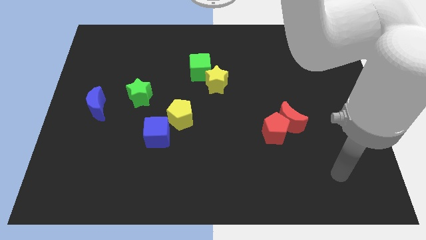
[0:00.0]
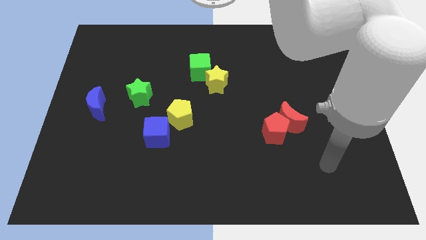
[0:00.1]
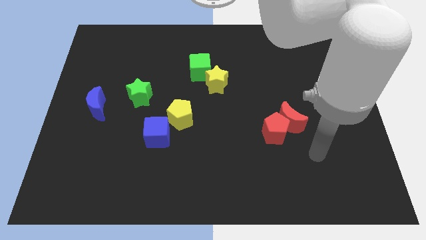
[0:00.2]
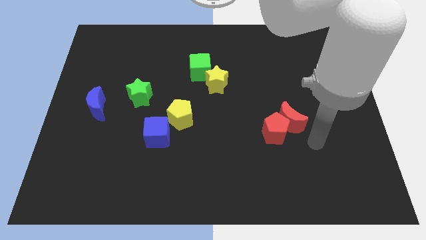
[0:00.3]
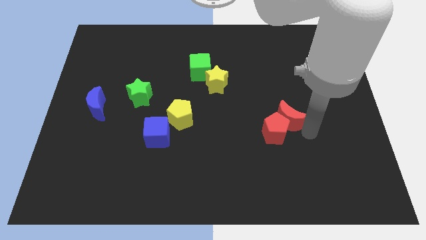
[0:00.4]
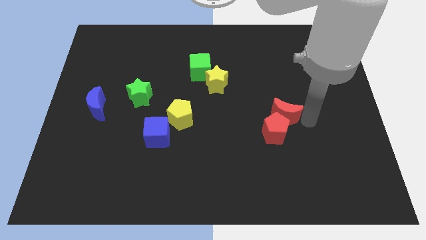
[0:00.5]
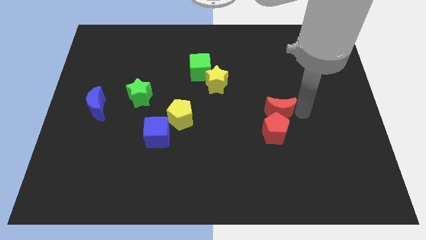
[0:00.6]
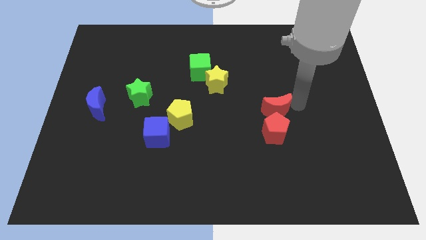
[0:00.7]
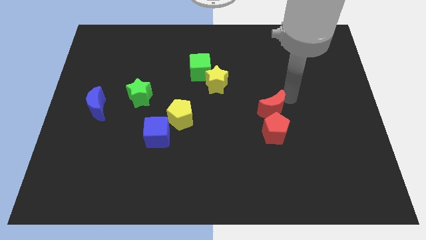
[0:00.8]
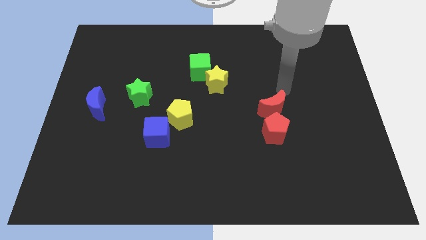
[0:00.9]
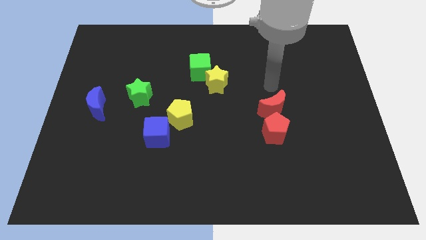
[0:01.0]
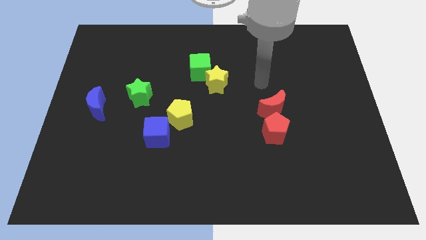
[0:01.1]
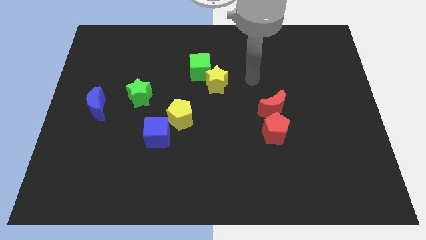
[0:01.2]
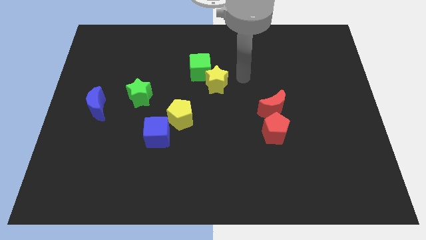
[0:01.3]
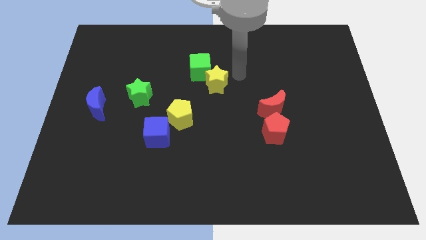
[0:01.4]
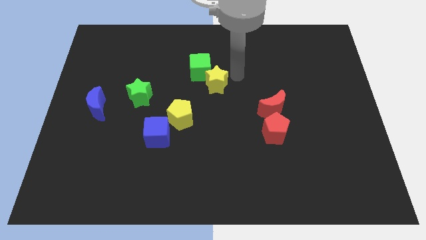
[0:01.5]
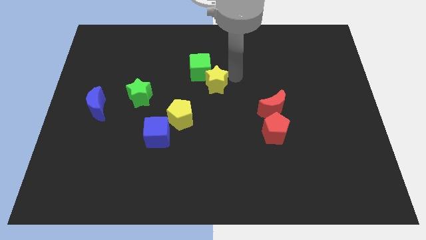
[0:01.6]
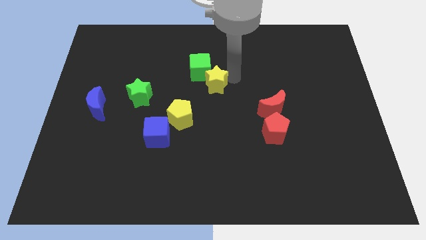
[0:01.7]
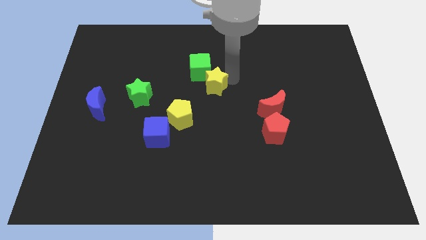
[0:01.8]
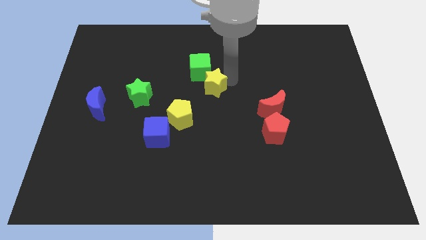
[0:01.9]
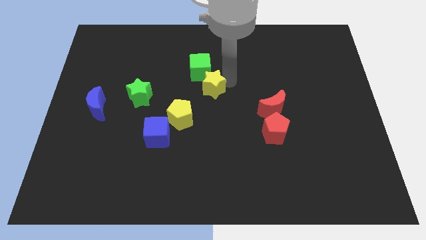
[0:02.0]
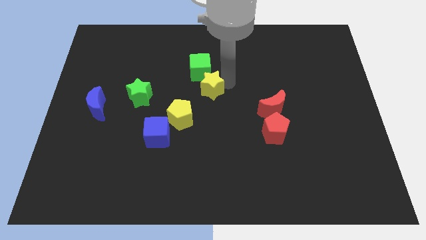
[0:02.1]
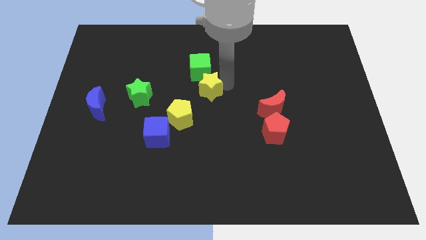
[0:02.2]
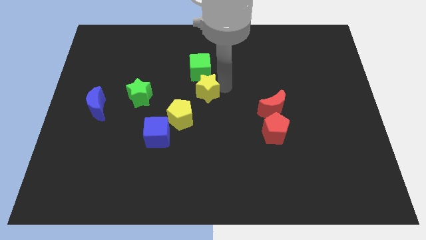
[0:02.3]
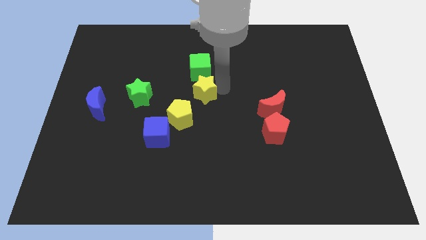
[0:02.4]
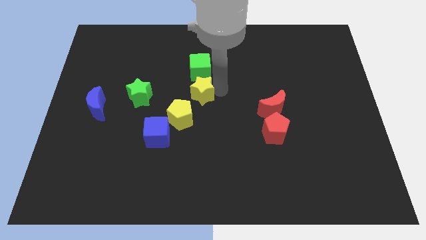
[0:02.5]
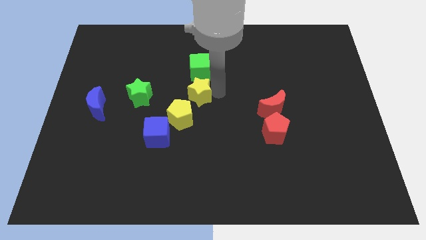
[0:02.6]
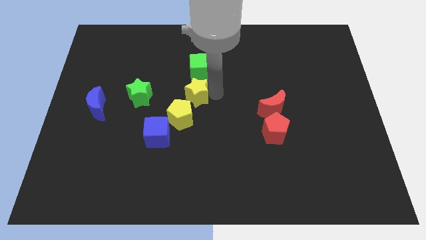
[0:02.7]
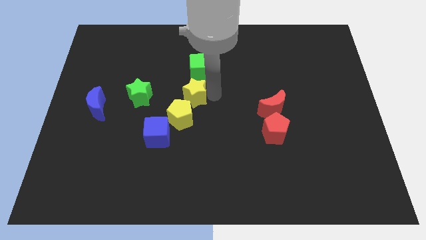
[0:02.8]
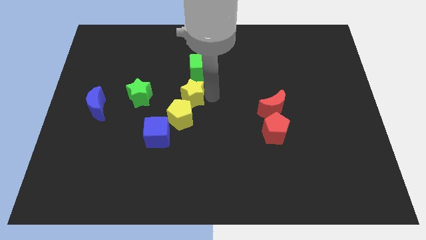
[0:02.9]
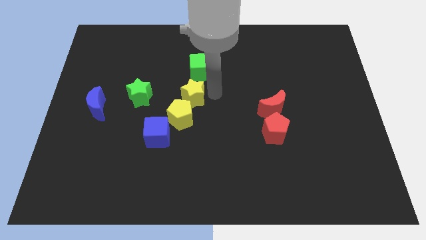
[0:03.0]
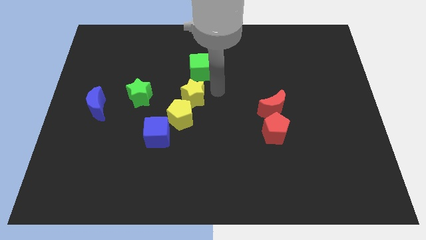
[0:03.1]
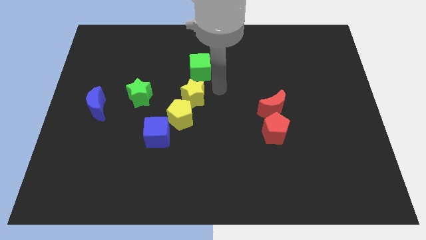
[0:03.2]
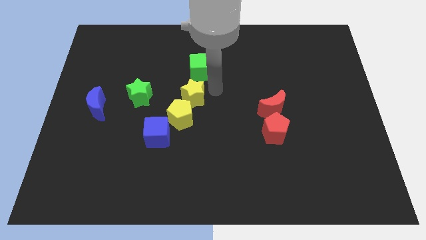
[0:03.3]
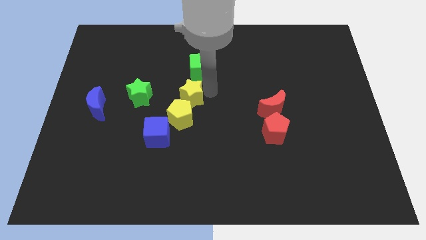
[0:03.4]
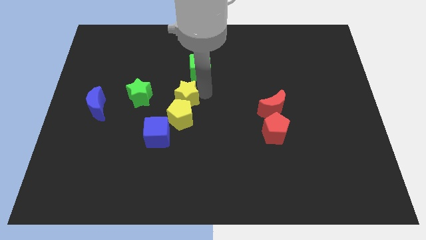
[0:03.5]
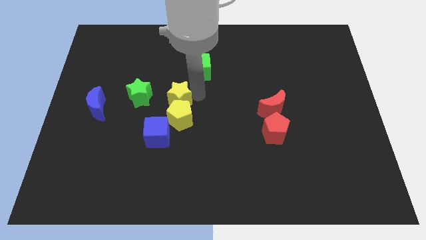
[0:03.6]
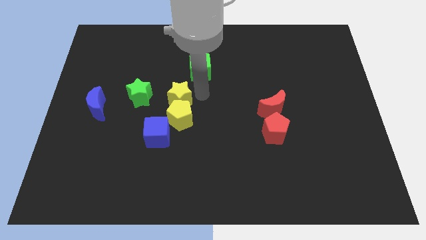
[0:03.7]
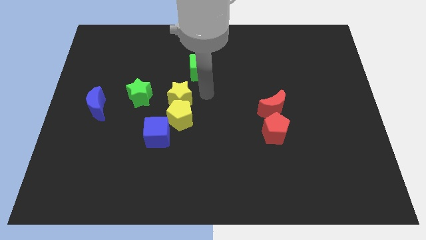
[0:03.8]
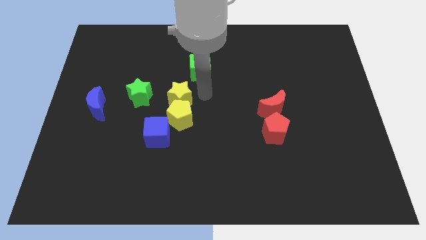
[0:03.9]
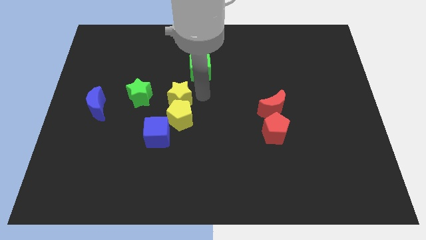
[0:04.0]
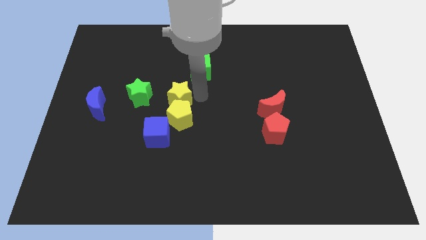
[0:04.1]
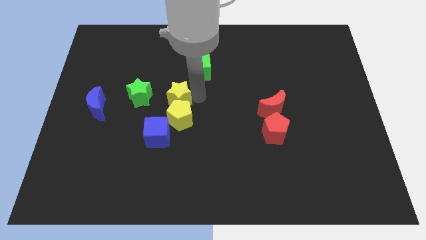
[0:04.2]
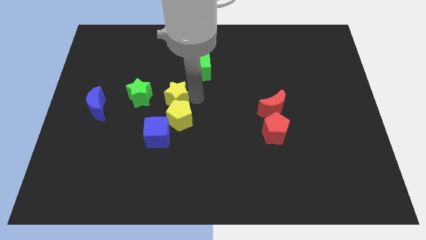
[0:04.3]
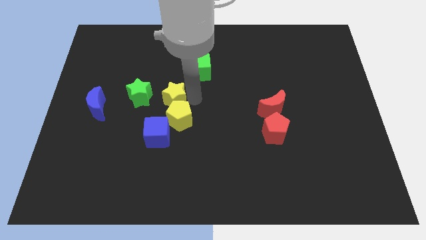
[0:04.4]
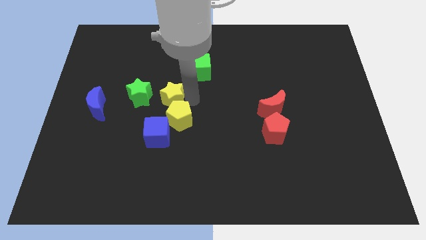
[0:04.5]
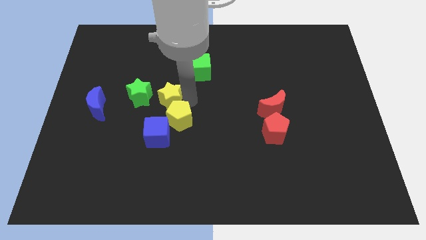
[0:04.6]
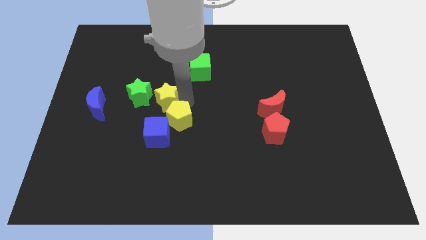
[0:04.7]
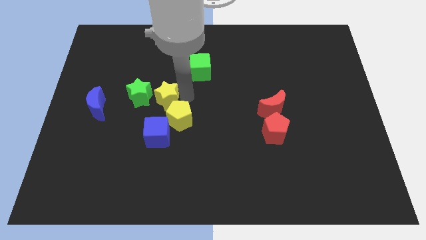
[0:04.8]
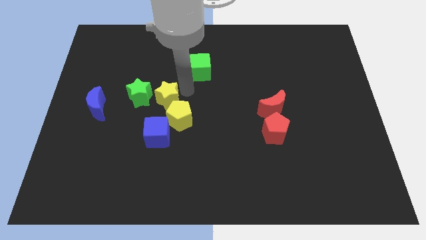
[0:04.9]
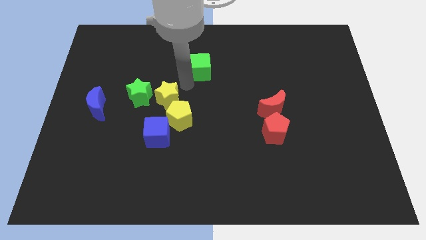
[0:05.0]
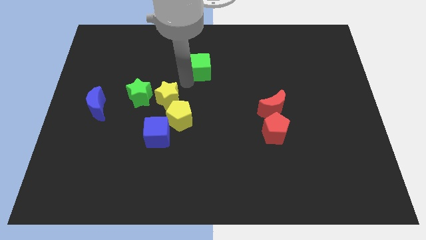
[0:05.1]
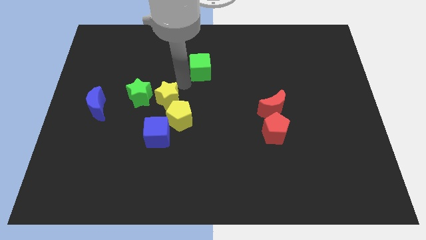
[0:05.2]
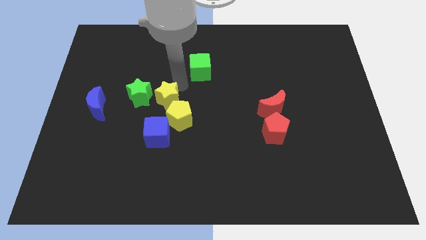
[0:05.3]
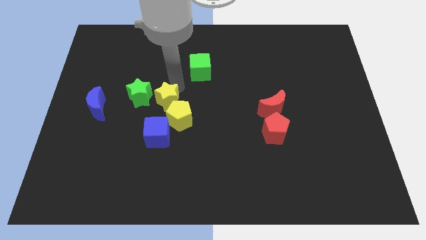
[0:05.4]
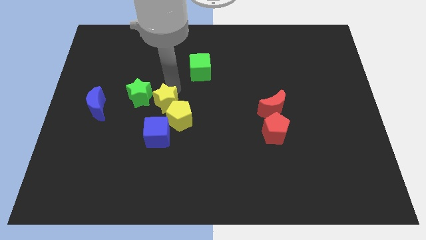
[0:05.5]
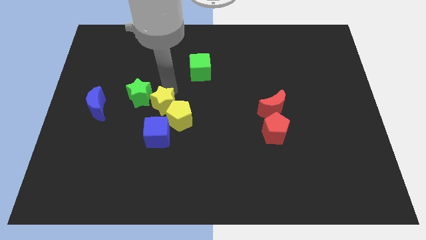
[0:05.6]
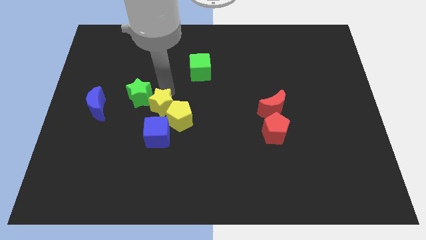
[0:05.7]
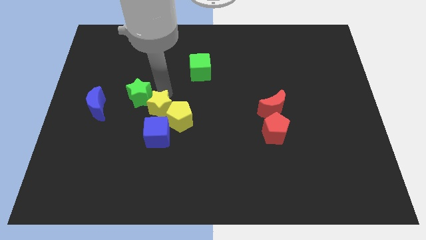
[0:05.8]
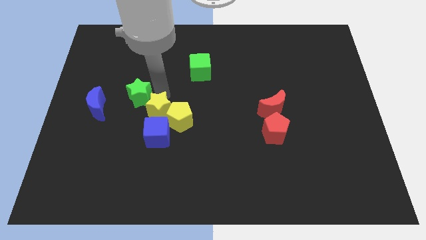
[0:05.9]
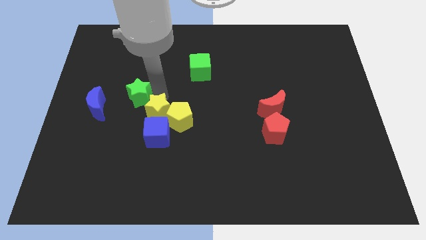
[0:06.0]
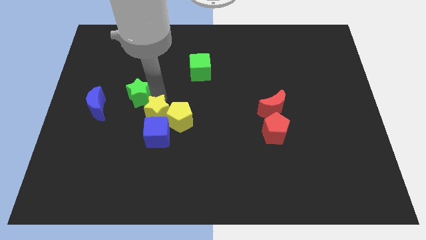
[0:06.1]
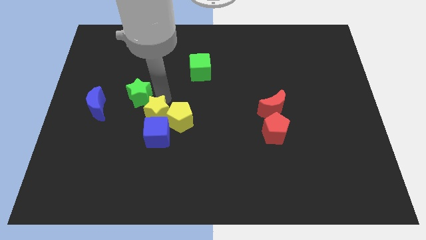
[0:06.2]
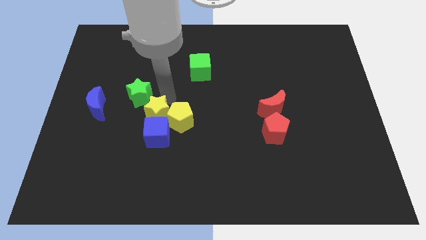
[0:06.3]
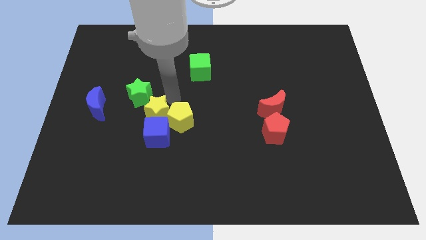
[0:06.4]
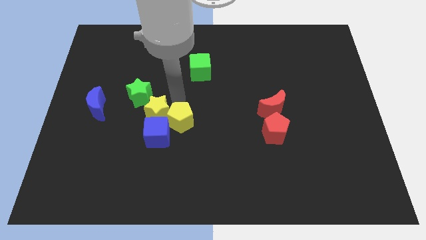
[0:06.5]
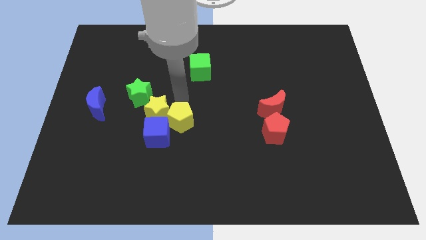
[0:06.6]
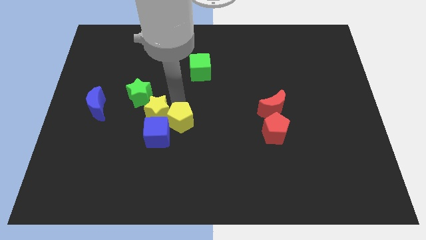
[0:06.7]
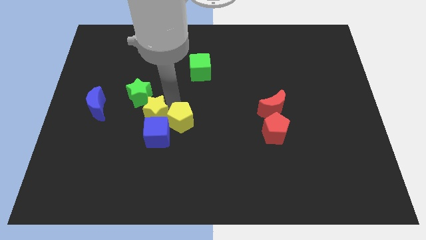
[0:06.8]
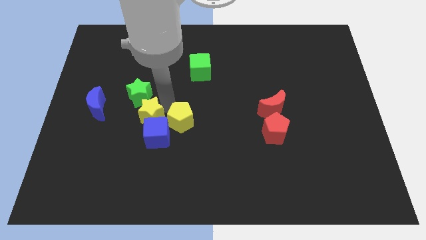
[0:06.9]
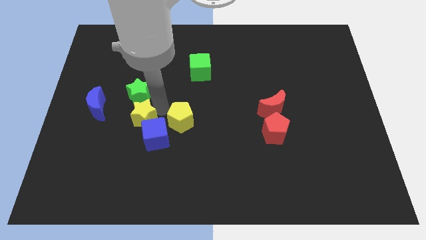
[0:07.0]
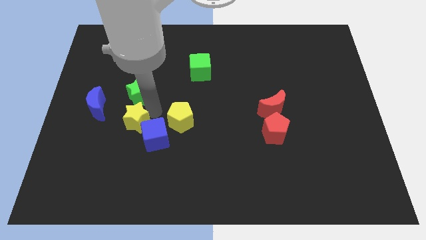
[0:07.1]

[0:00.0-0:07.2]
push the yellow star diagonally down and to the left

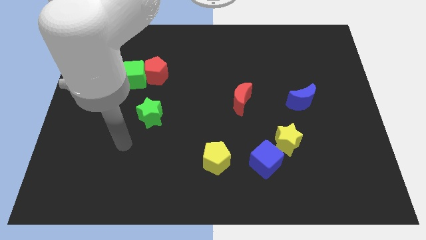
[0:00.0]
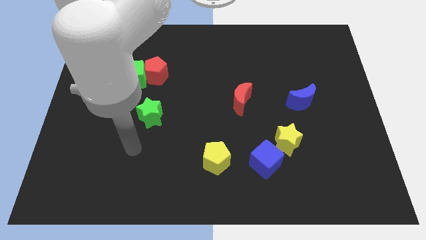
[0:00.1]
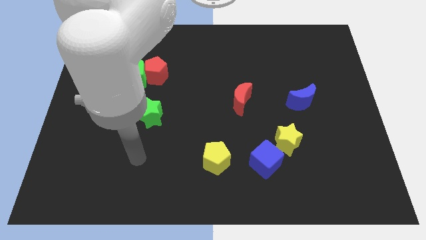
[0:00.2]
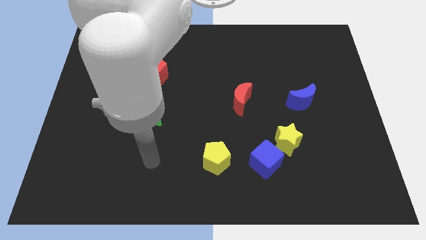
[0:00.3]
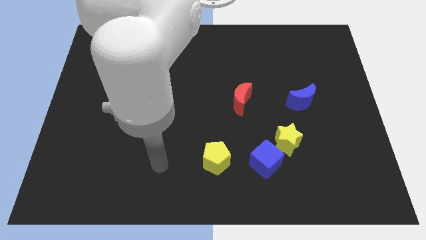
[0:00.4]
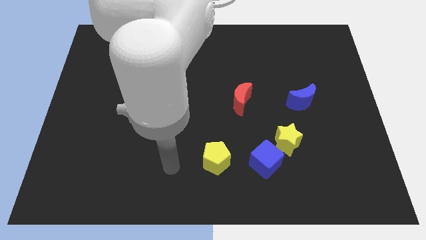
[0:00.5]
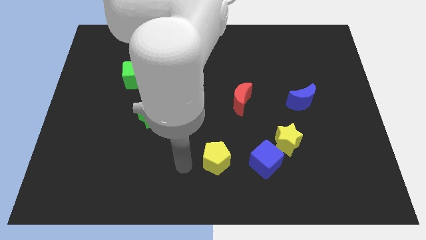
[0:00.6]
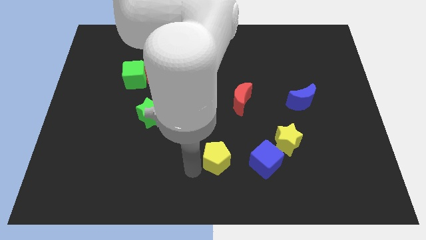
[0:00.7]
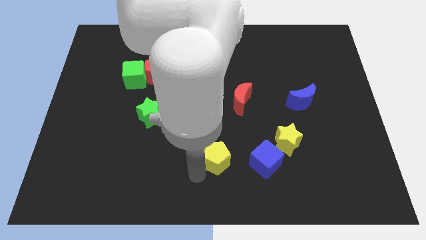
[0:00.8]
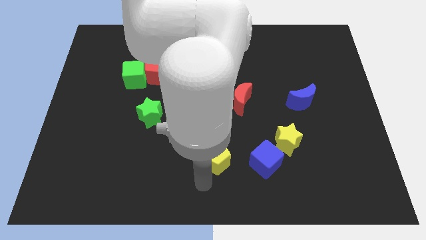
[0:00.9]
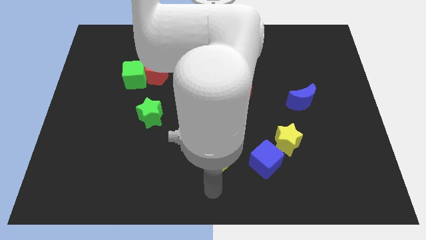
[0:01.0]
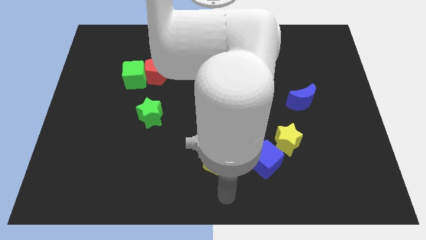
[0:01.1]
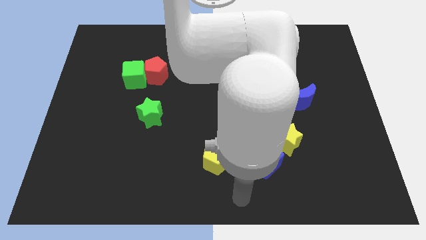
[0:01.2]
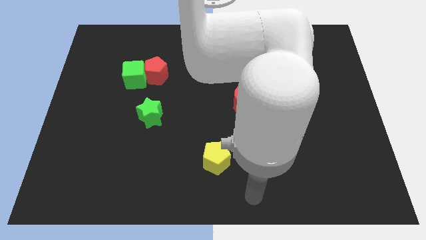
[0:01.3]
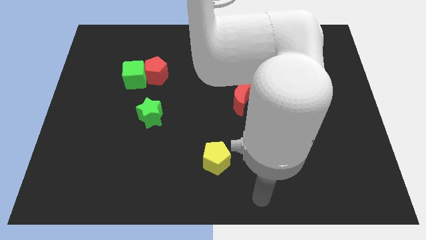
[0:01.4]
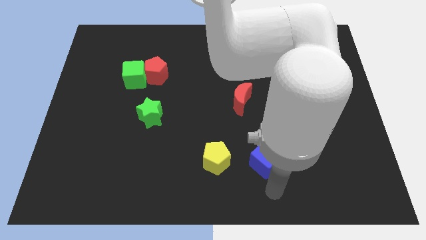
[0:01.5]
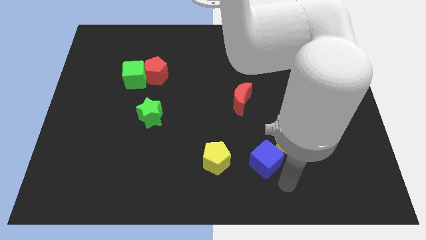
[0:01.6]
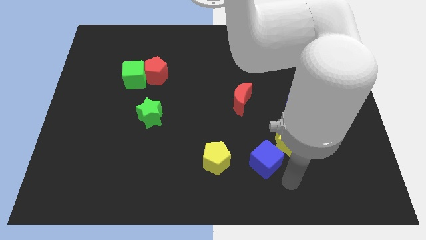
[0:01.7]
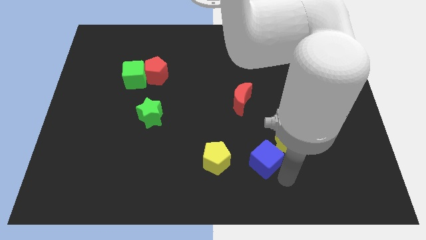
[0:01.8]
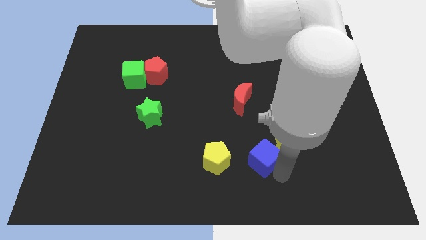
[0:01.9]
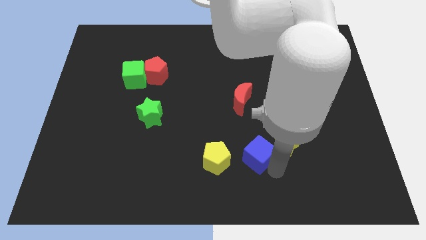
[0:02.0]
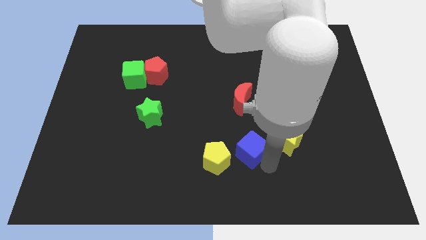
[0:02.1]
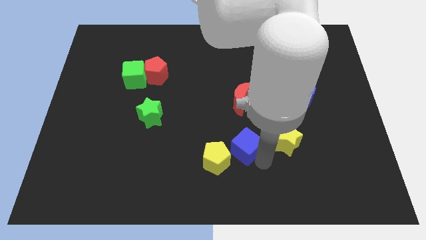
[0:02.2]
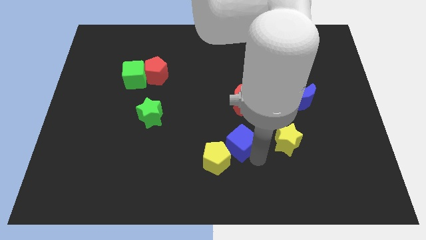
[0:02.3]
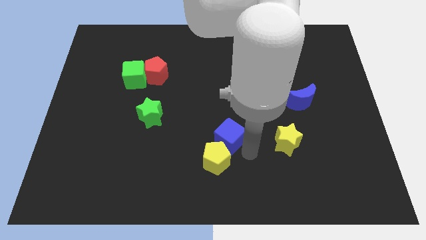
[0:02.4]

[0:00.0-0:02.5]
move the blue cube up and then to the left somewhat
